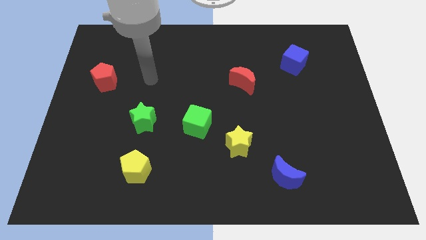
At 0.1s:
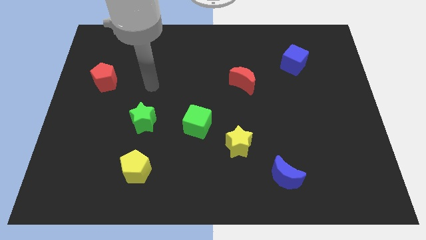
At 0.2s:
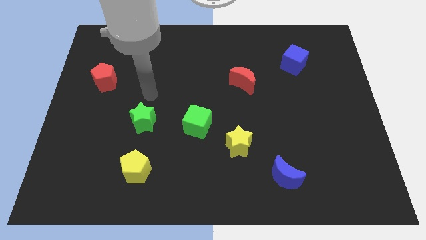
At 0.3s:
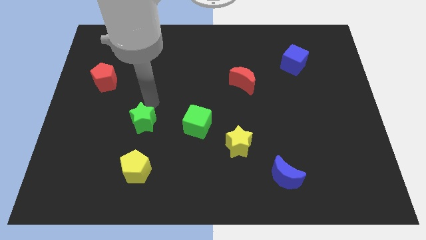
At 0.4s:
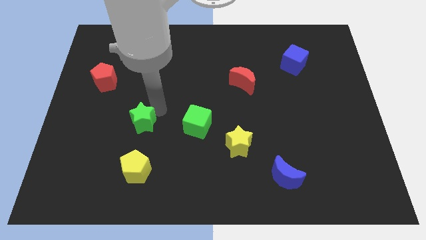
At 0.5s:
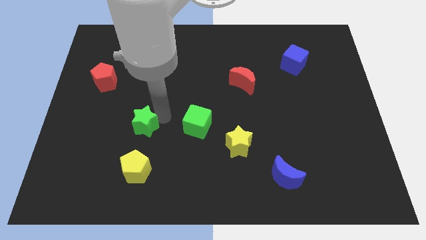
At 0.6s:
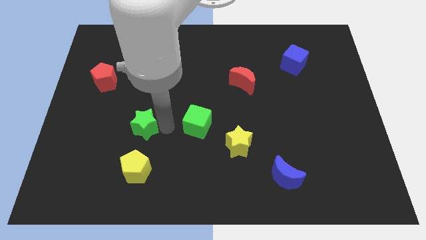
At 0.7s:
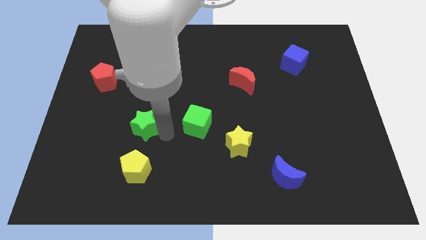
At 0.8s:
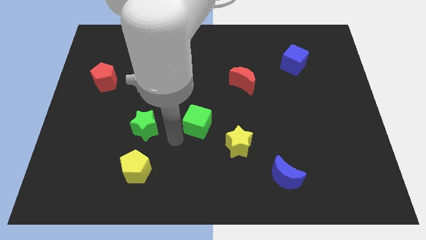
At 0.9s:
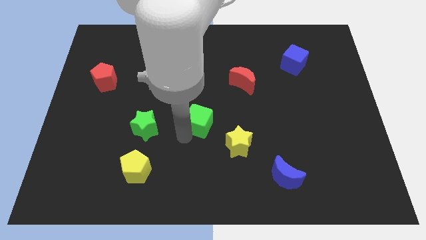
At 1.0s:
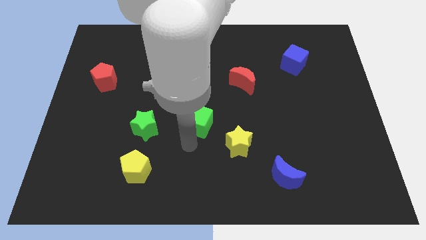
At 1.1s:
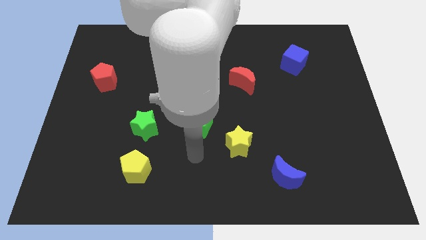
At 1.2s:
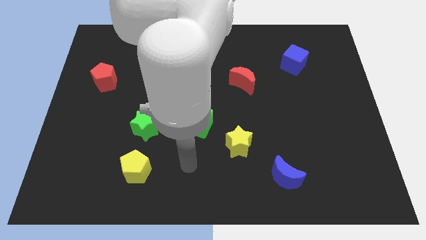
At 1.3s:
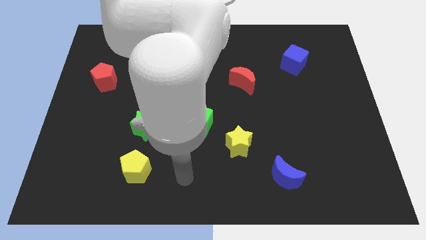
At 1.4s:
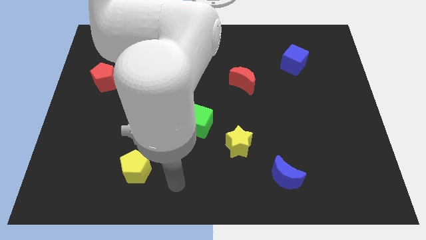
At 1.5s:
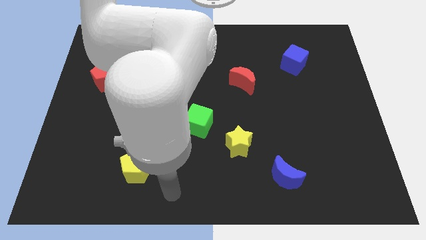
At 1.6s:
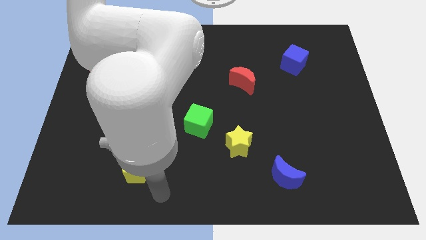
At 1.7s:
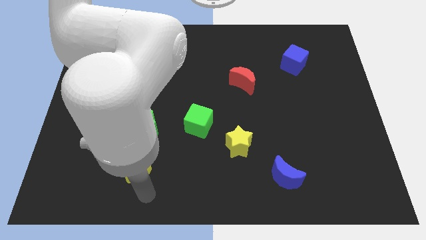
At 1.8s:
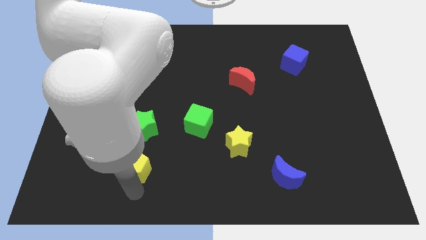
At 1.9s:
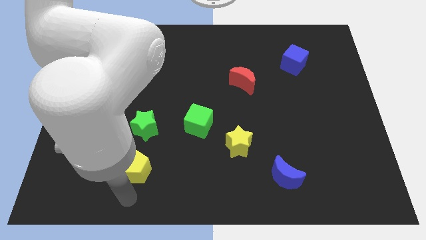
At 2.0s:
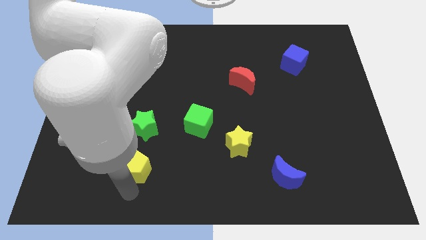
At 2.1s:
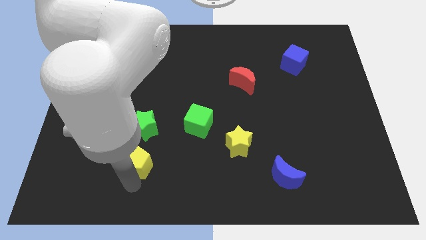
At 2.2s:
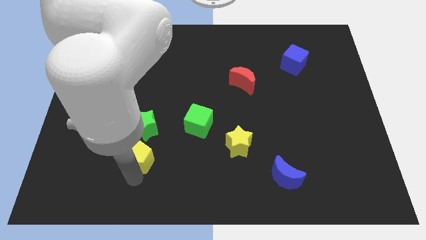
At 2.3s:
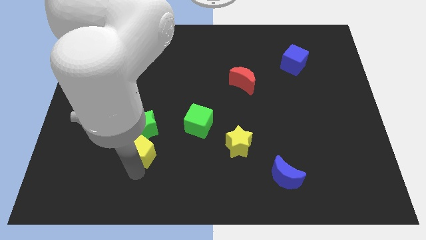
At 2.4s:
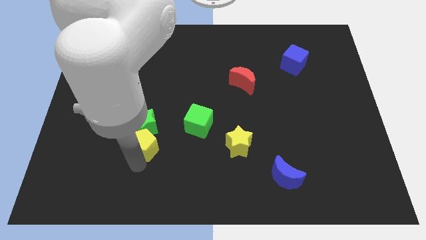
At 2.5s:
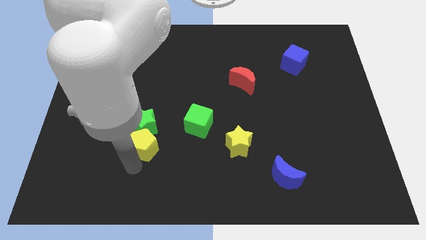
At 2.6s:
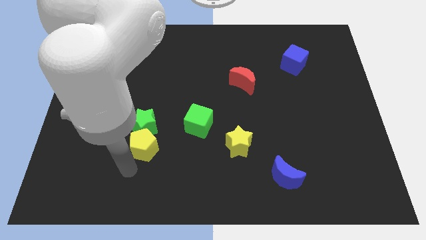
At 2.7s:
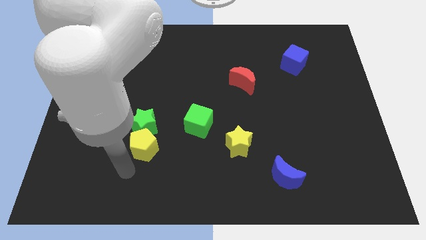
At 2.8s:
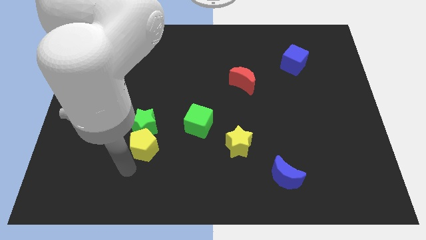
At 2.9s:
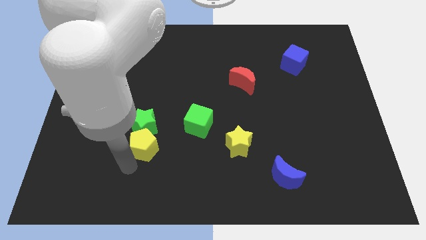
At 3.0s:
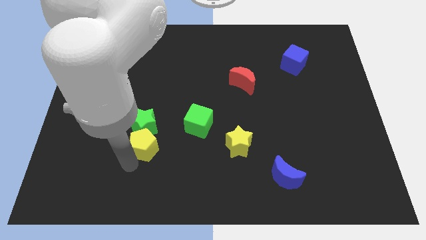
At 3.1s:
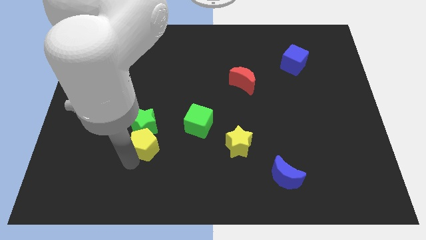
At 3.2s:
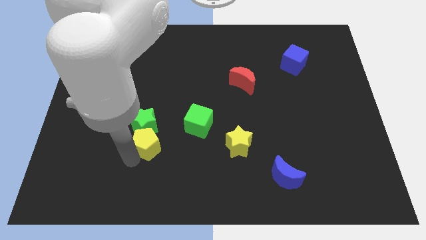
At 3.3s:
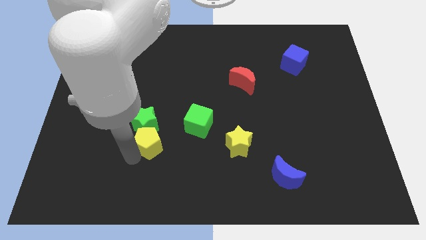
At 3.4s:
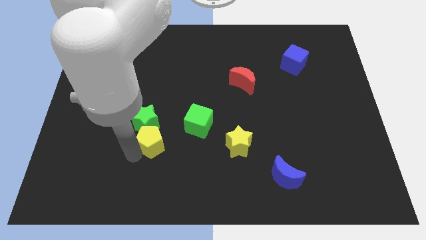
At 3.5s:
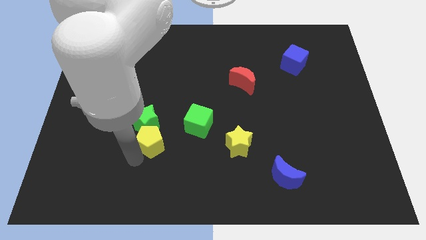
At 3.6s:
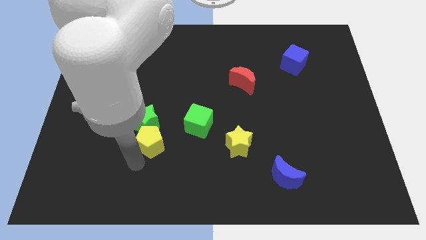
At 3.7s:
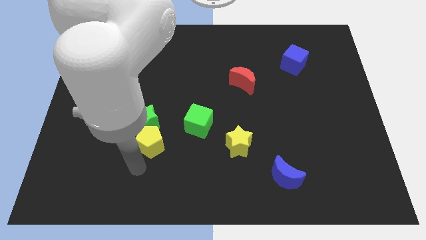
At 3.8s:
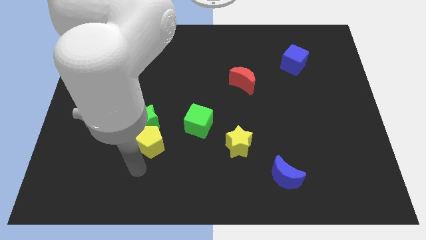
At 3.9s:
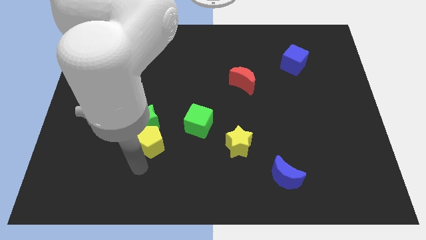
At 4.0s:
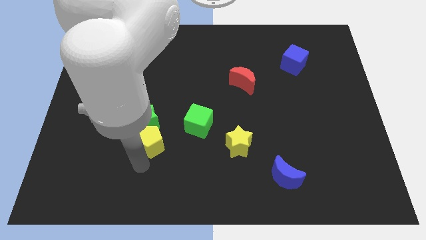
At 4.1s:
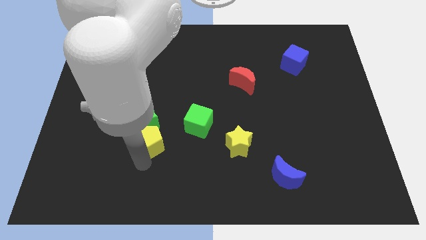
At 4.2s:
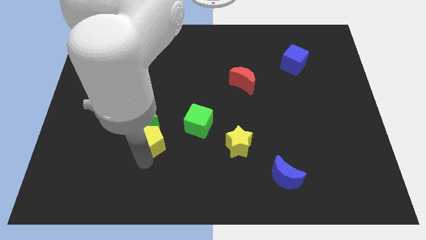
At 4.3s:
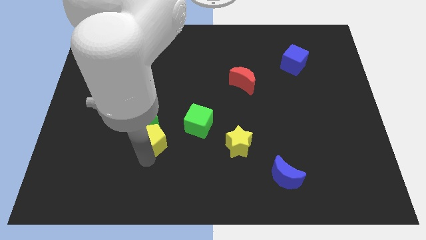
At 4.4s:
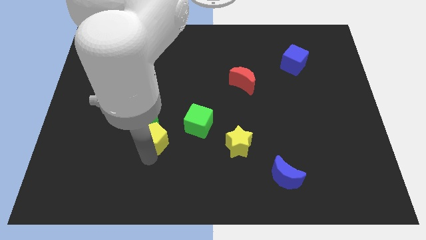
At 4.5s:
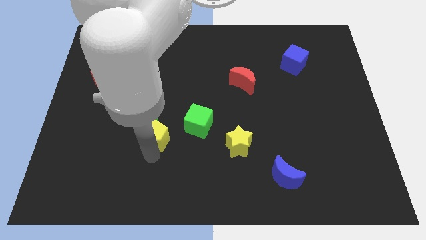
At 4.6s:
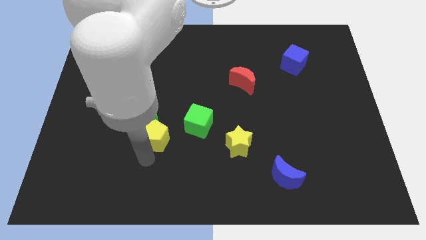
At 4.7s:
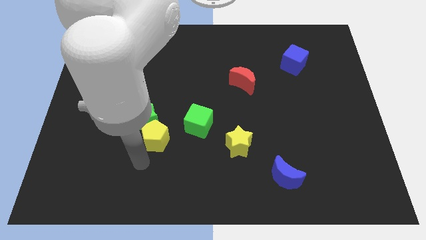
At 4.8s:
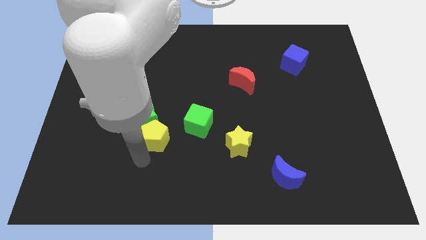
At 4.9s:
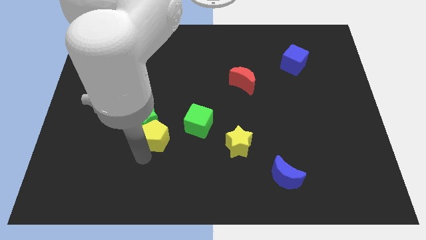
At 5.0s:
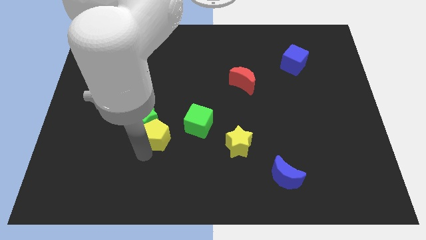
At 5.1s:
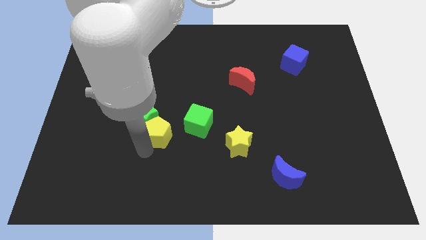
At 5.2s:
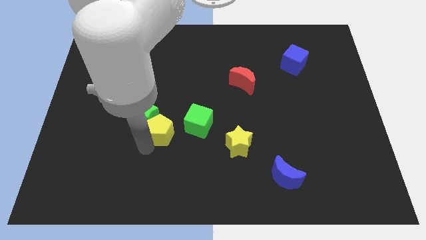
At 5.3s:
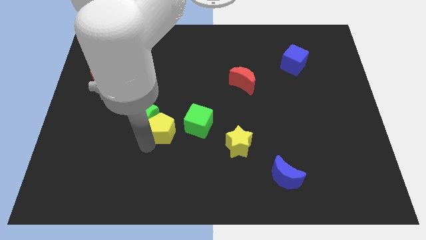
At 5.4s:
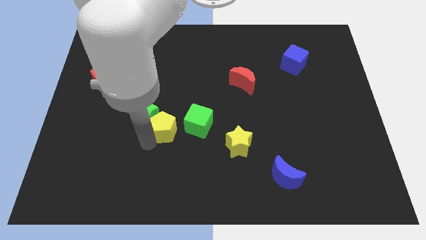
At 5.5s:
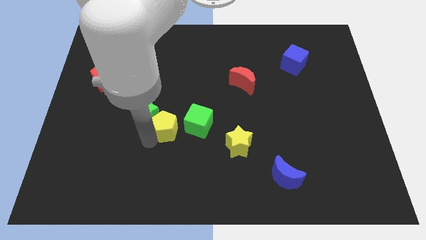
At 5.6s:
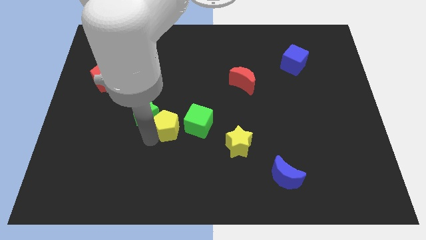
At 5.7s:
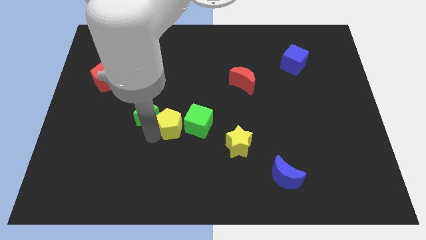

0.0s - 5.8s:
move the yellow pentagon to the center

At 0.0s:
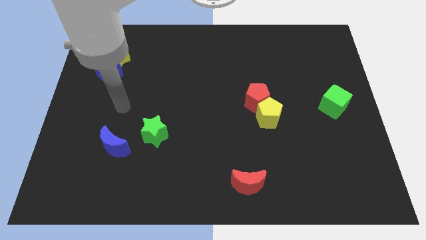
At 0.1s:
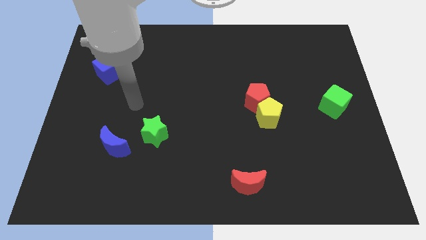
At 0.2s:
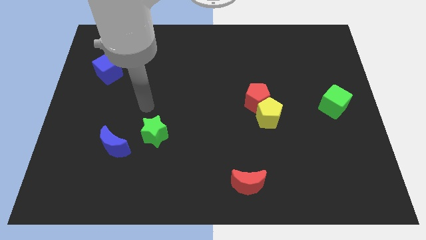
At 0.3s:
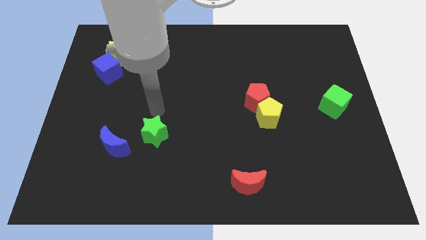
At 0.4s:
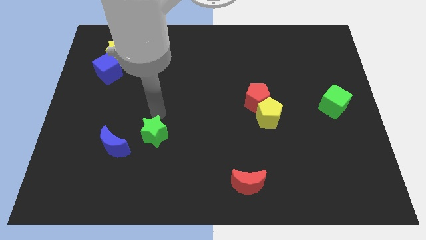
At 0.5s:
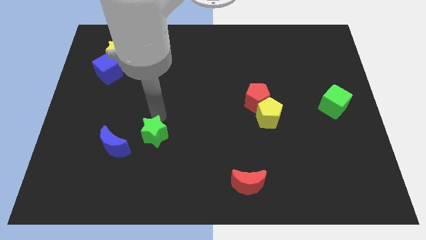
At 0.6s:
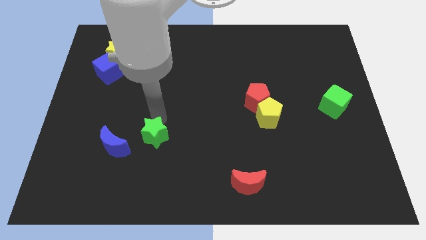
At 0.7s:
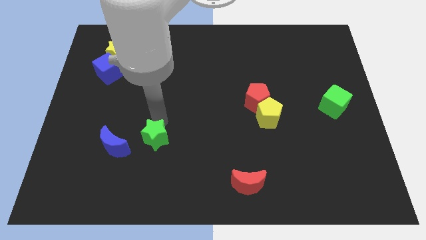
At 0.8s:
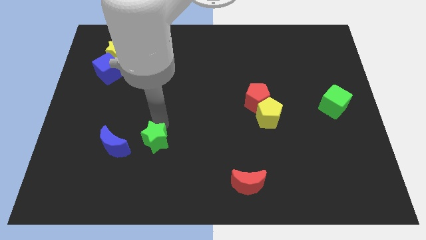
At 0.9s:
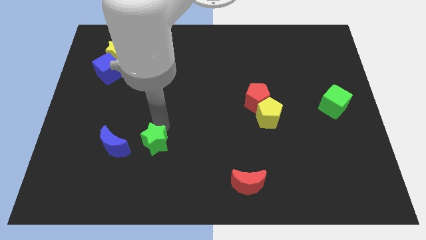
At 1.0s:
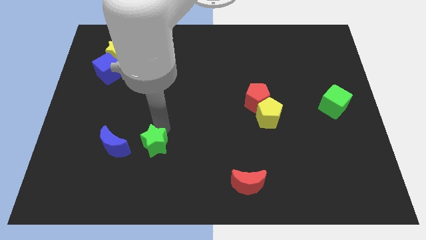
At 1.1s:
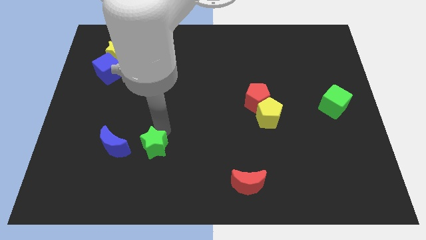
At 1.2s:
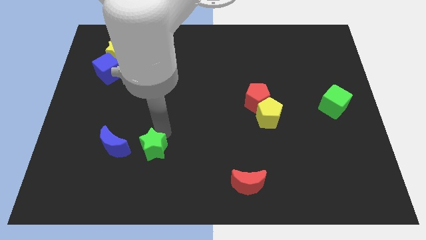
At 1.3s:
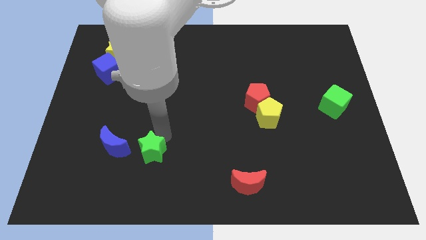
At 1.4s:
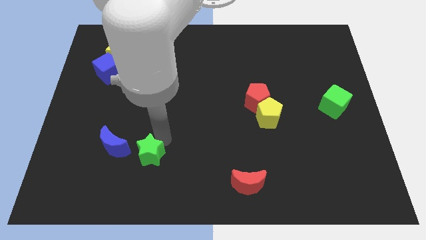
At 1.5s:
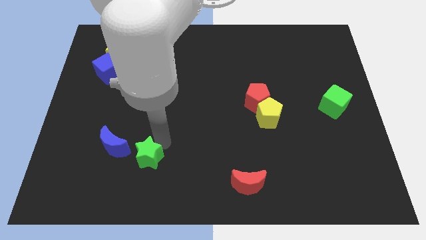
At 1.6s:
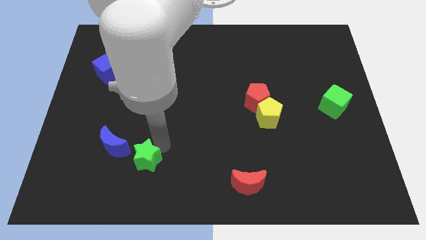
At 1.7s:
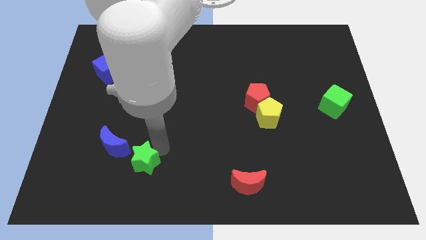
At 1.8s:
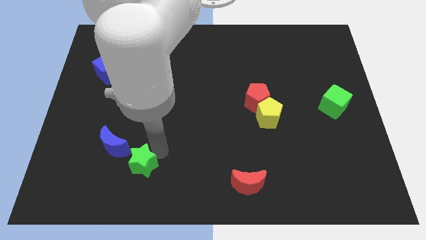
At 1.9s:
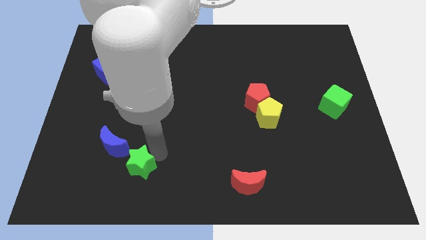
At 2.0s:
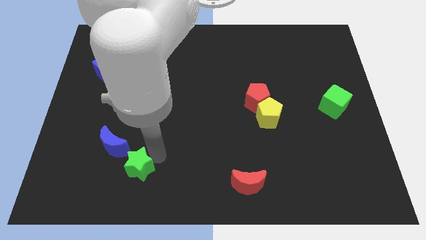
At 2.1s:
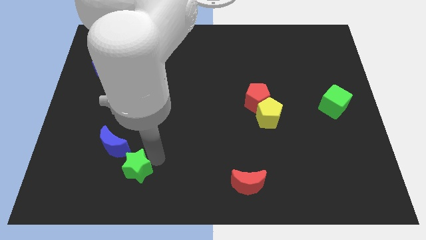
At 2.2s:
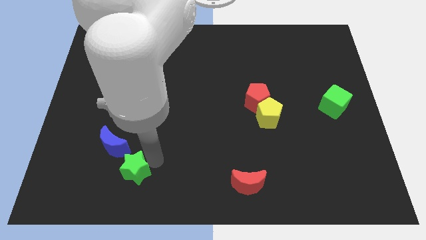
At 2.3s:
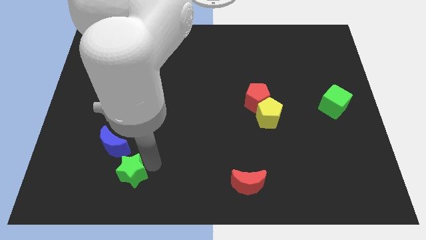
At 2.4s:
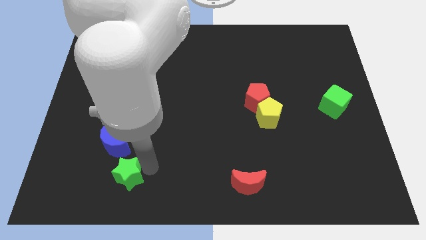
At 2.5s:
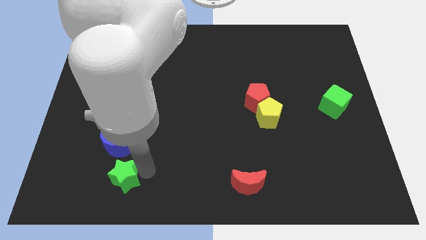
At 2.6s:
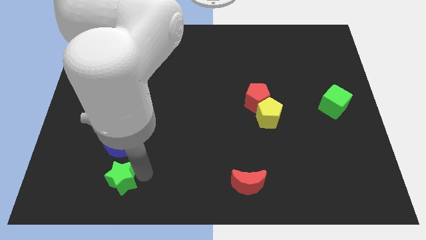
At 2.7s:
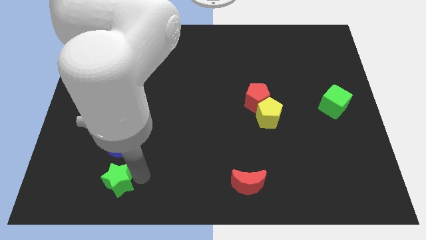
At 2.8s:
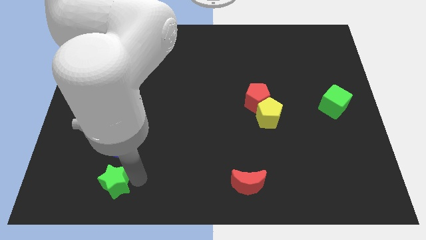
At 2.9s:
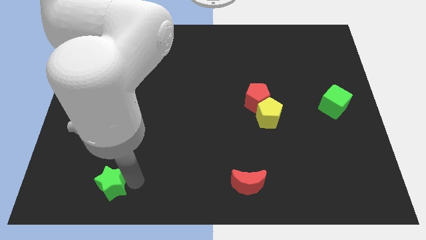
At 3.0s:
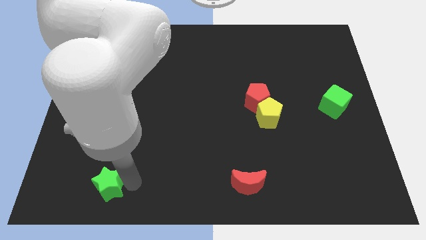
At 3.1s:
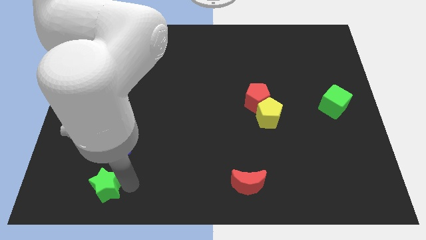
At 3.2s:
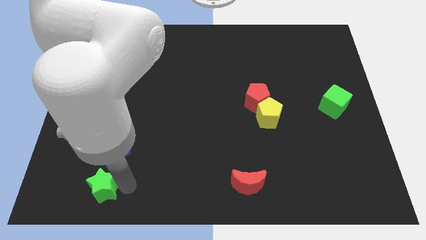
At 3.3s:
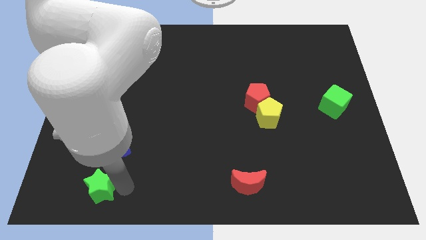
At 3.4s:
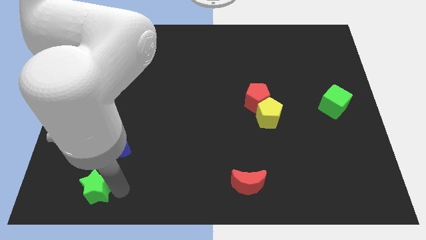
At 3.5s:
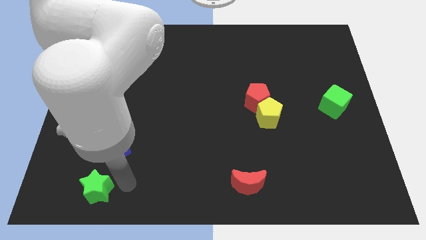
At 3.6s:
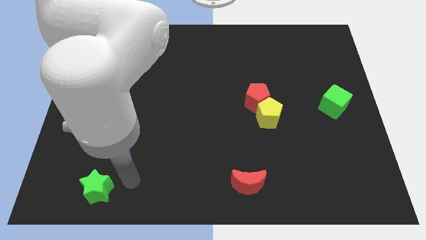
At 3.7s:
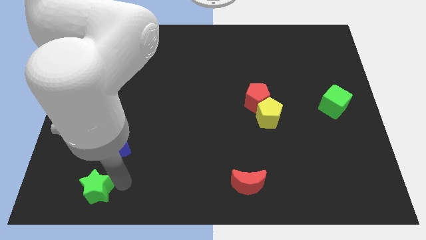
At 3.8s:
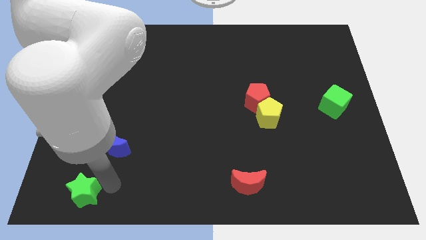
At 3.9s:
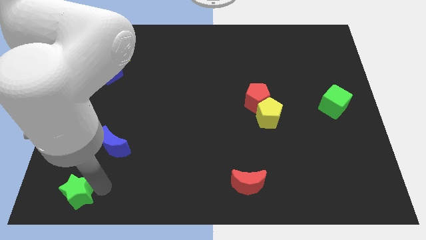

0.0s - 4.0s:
push the green star to the bottom left
